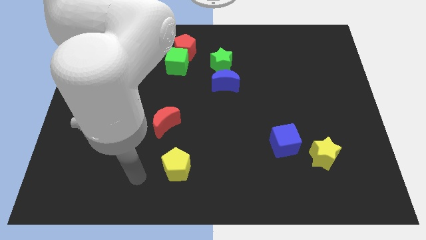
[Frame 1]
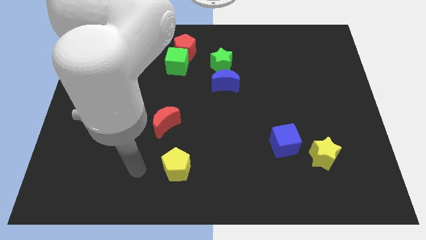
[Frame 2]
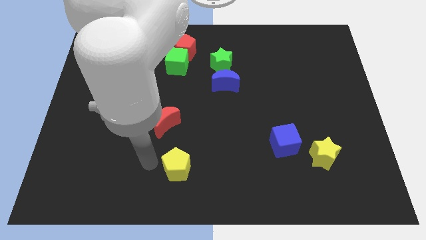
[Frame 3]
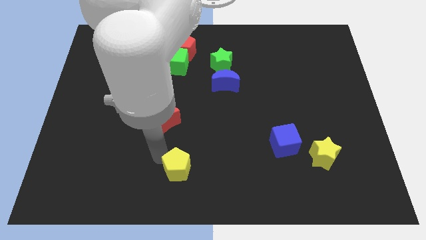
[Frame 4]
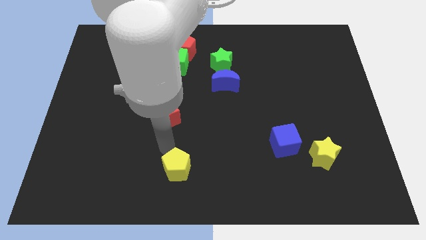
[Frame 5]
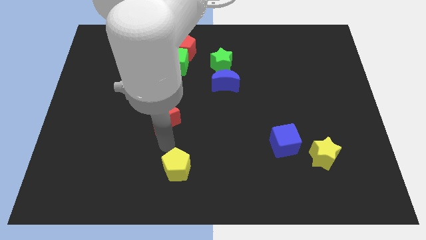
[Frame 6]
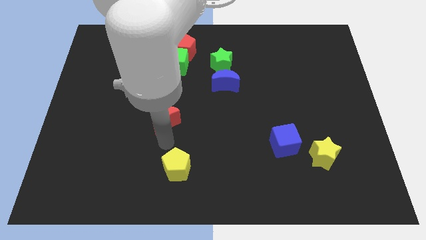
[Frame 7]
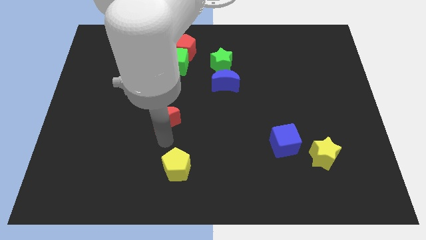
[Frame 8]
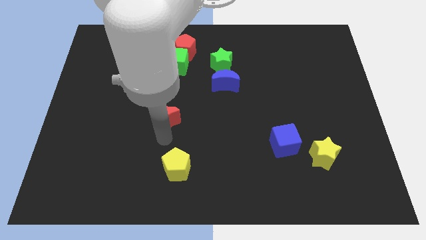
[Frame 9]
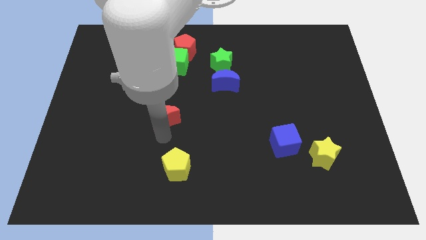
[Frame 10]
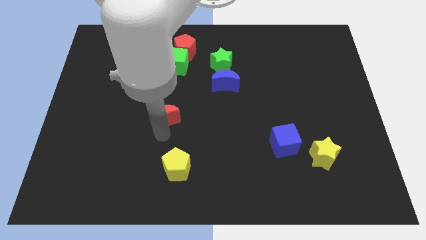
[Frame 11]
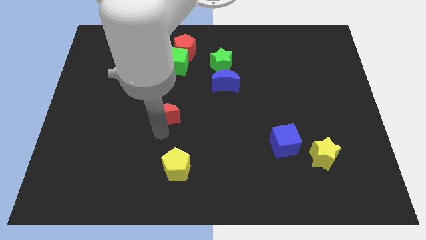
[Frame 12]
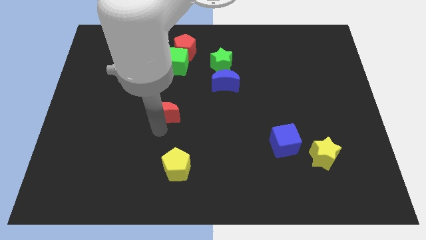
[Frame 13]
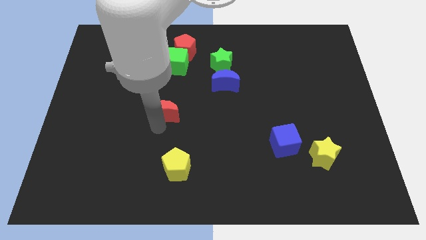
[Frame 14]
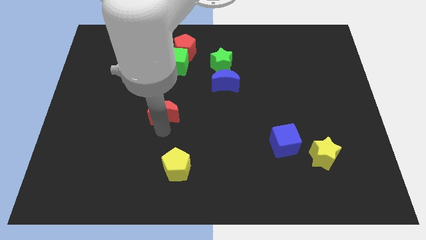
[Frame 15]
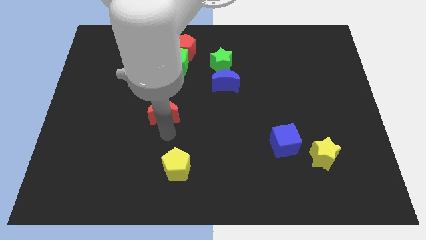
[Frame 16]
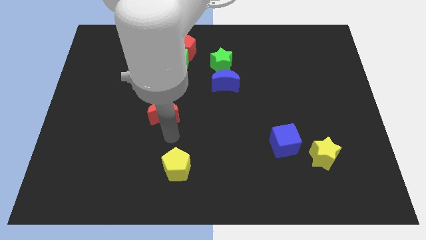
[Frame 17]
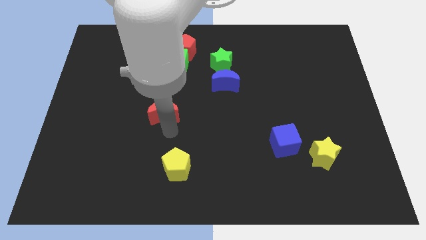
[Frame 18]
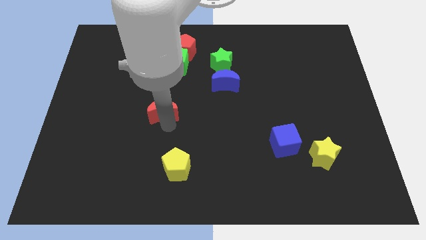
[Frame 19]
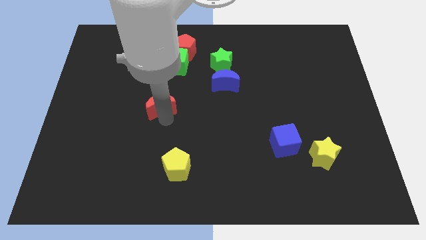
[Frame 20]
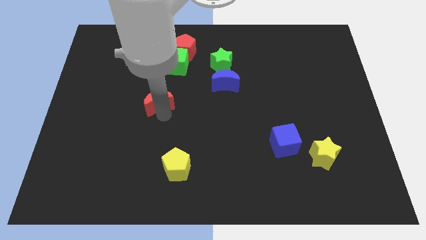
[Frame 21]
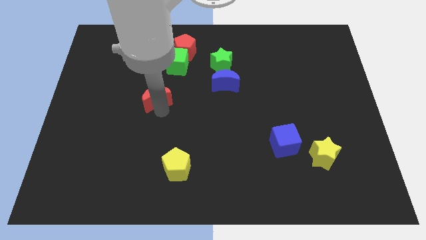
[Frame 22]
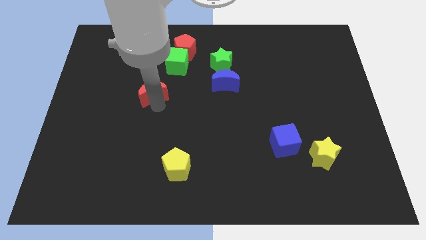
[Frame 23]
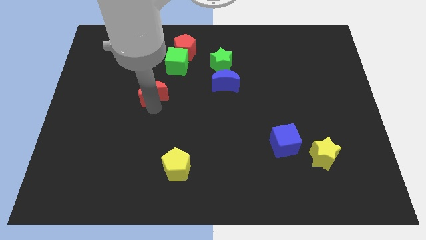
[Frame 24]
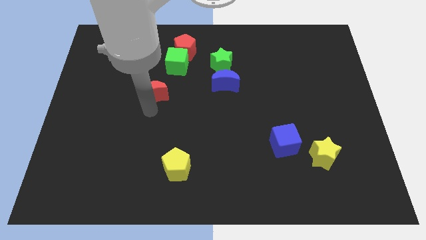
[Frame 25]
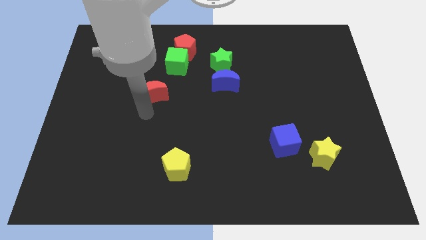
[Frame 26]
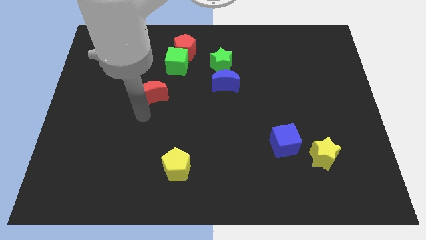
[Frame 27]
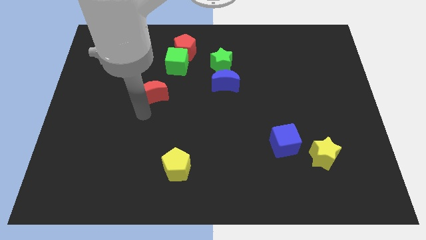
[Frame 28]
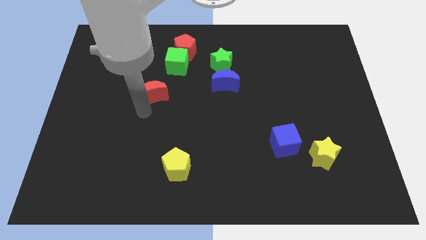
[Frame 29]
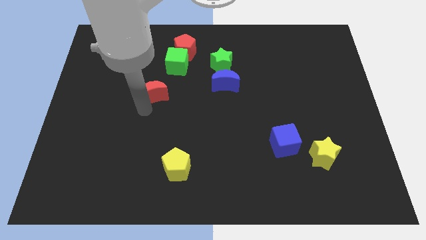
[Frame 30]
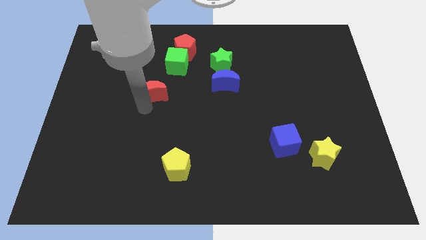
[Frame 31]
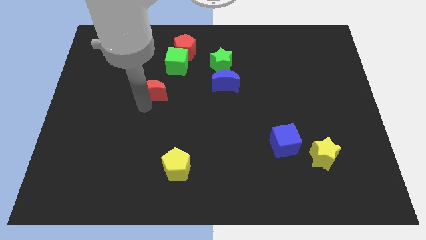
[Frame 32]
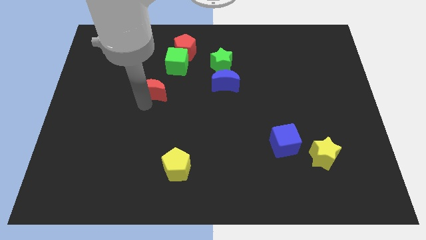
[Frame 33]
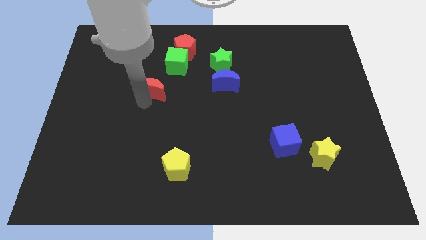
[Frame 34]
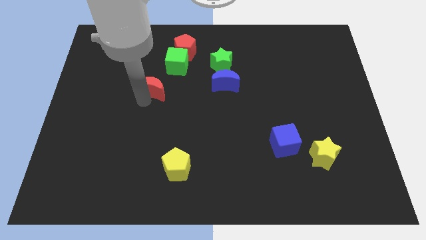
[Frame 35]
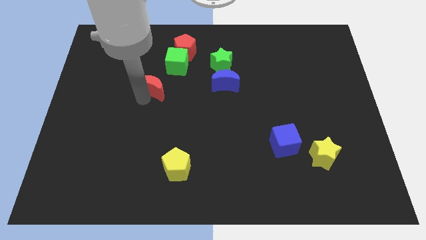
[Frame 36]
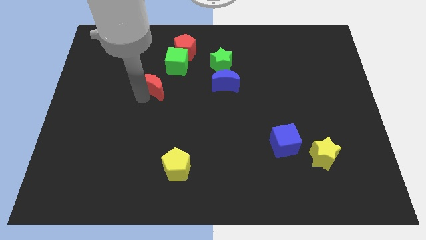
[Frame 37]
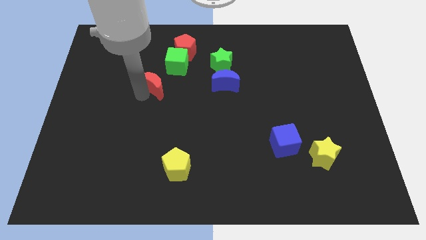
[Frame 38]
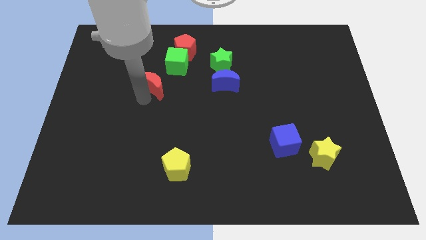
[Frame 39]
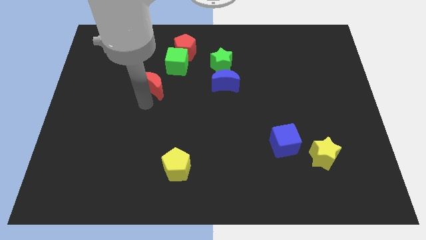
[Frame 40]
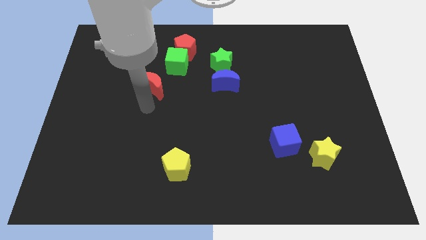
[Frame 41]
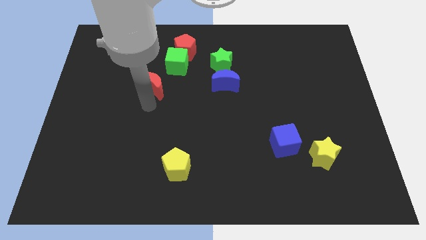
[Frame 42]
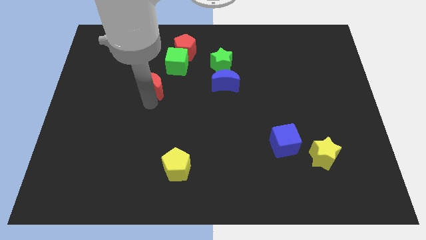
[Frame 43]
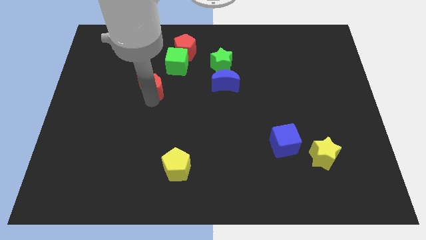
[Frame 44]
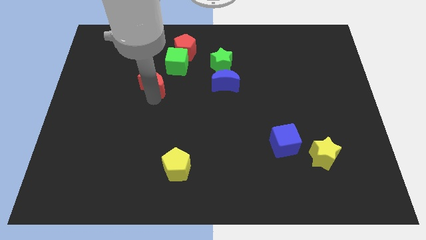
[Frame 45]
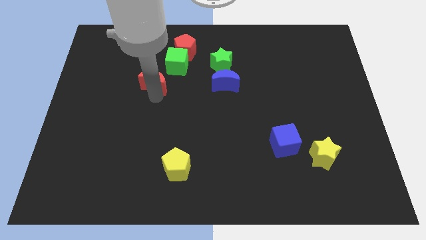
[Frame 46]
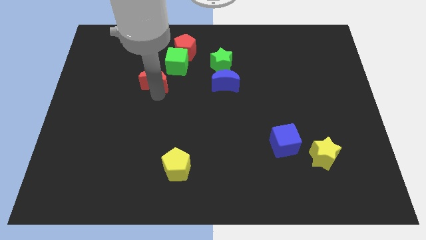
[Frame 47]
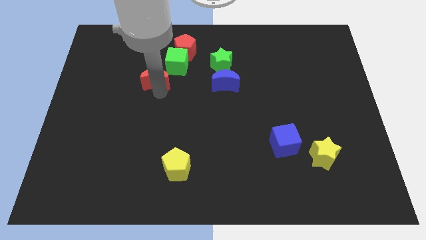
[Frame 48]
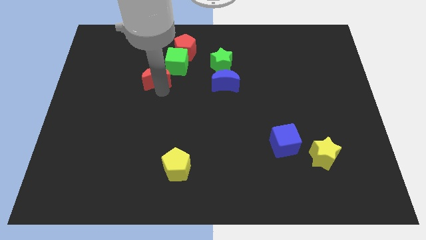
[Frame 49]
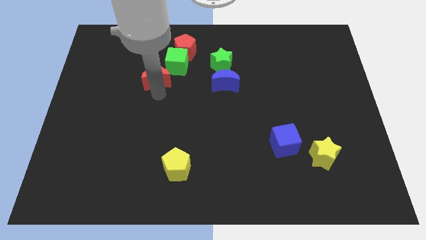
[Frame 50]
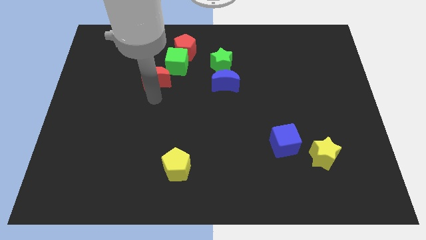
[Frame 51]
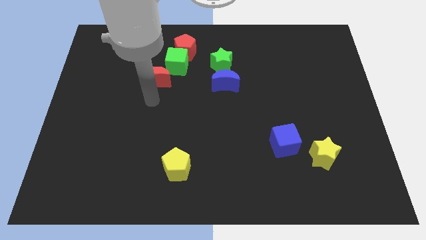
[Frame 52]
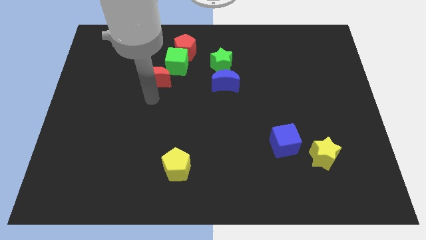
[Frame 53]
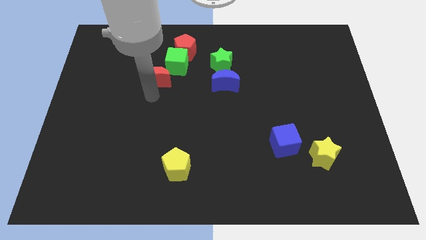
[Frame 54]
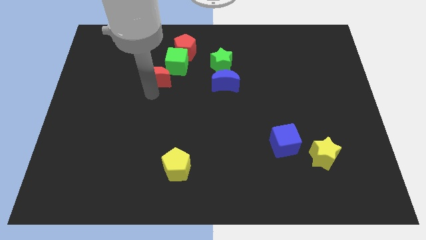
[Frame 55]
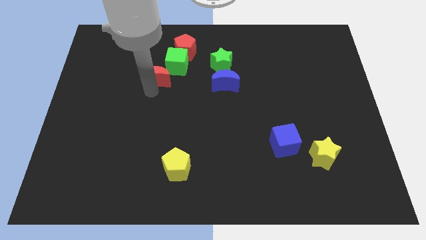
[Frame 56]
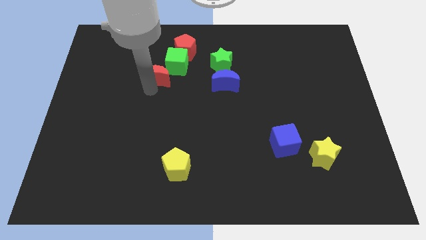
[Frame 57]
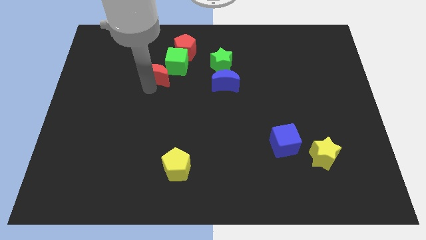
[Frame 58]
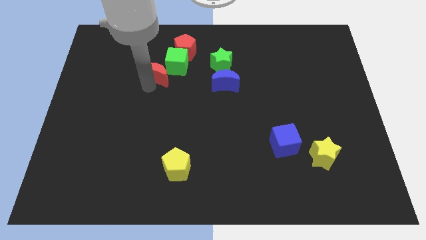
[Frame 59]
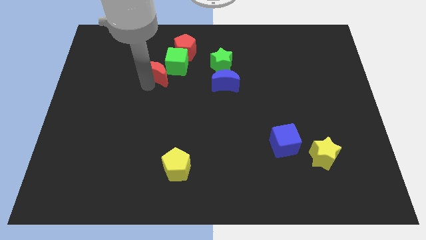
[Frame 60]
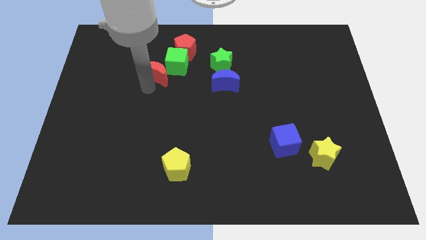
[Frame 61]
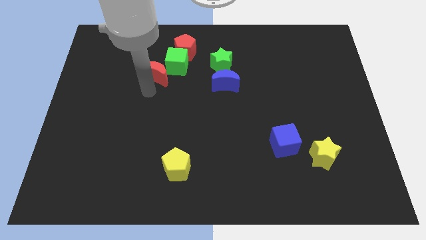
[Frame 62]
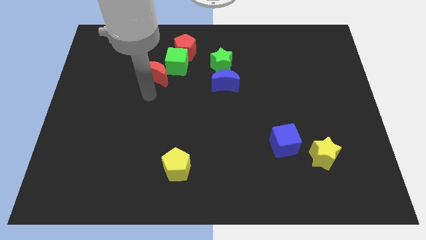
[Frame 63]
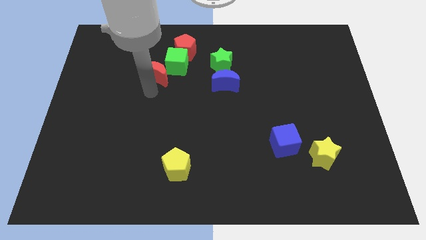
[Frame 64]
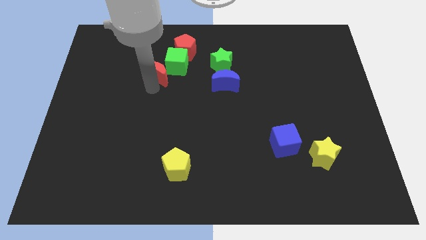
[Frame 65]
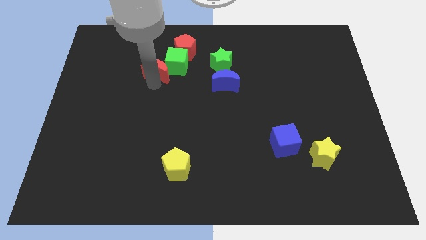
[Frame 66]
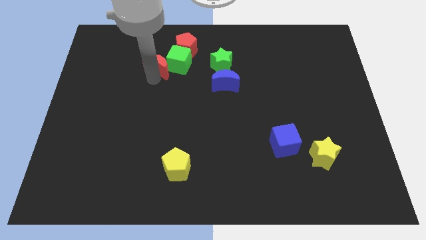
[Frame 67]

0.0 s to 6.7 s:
put the red moon to the left side of the green star
